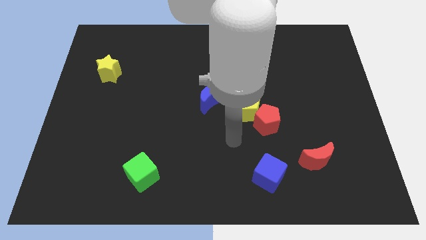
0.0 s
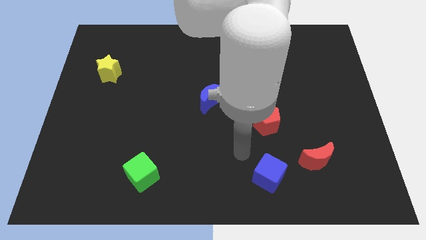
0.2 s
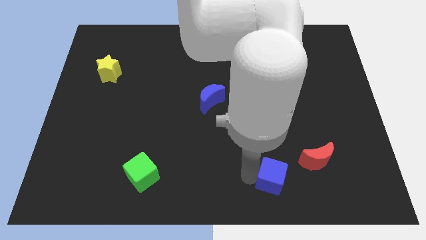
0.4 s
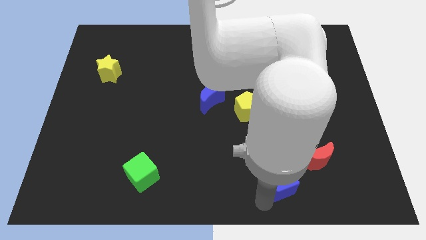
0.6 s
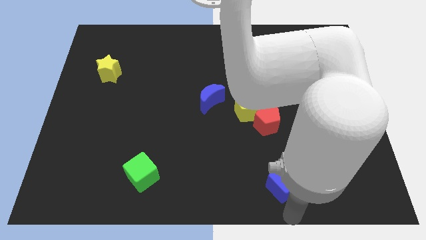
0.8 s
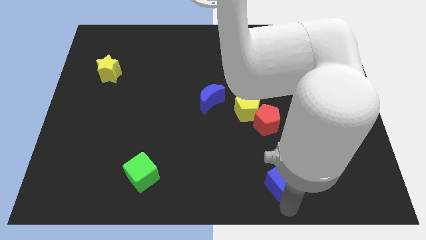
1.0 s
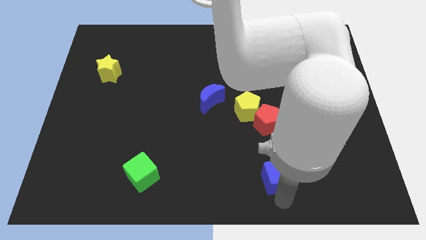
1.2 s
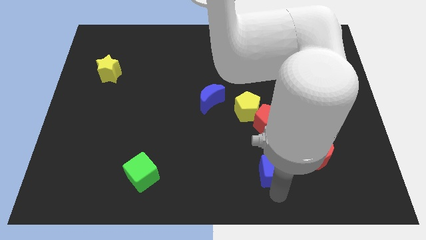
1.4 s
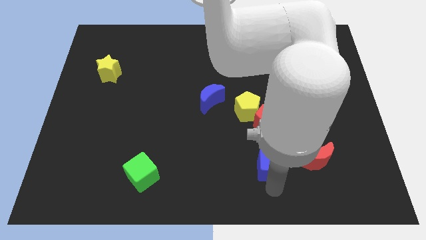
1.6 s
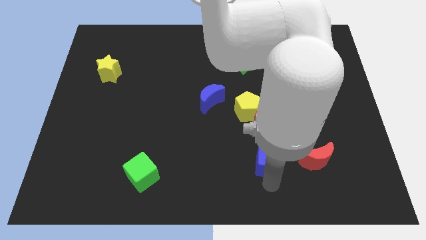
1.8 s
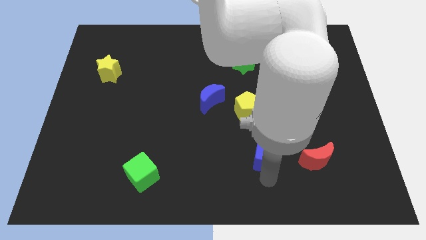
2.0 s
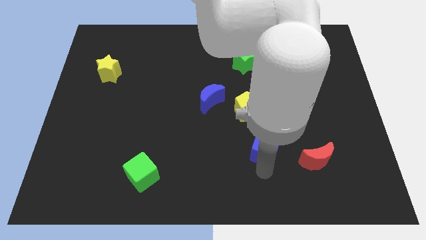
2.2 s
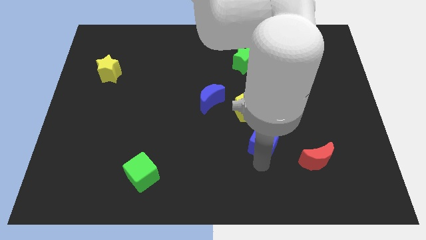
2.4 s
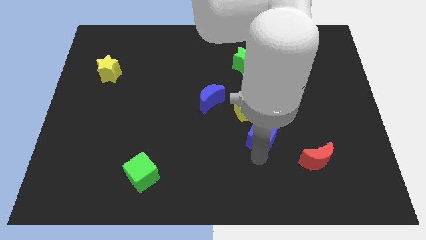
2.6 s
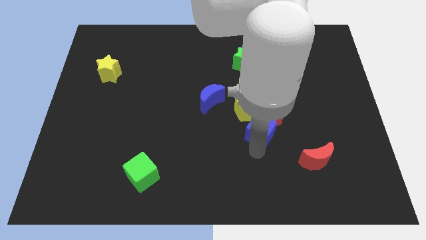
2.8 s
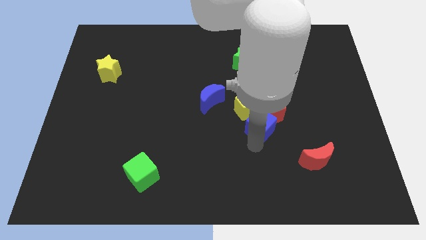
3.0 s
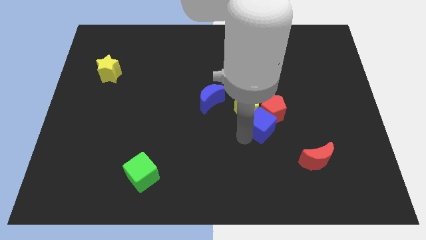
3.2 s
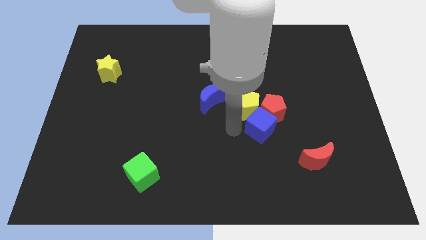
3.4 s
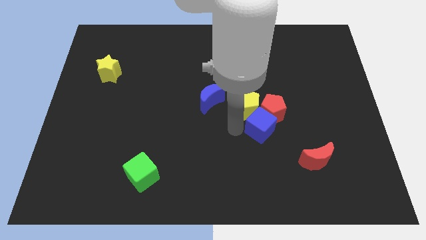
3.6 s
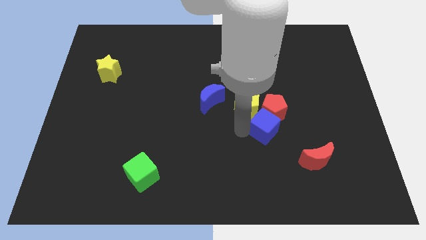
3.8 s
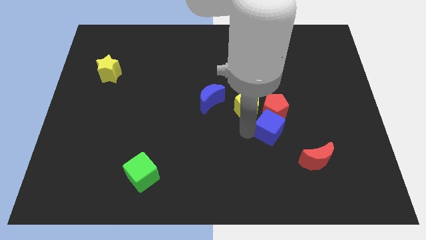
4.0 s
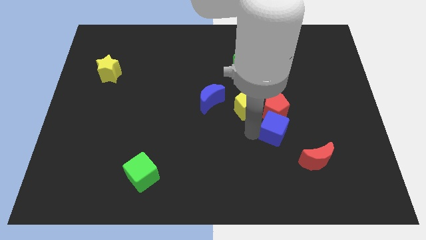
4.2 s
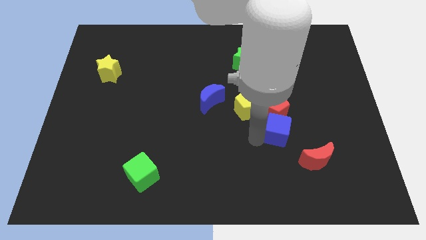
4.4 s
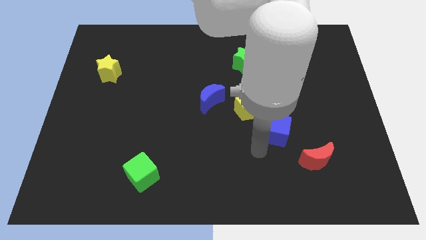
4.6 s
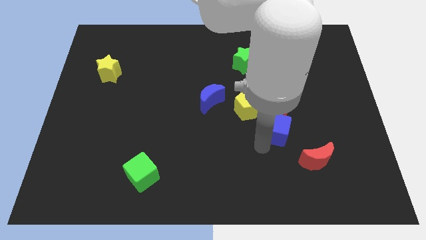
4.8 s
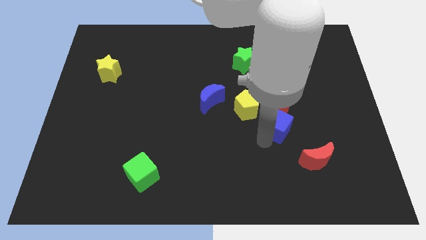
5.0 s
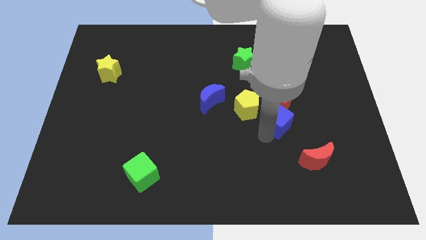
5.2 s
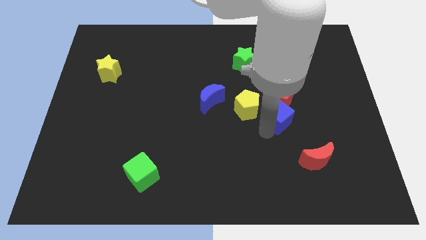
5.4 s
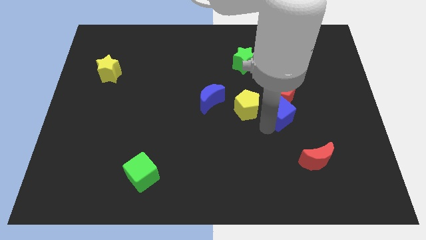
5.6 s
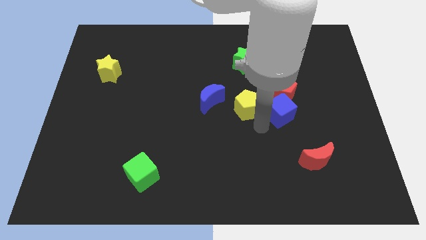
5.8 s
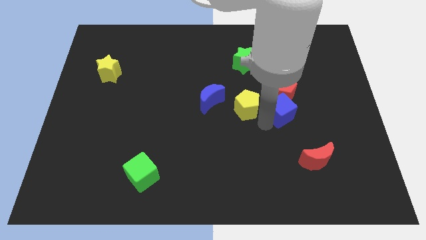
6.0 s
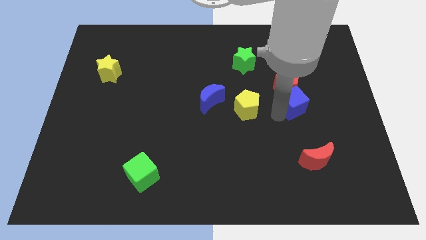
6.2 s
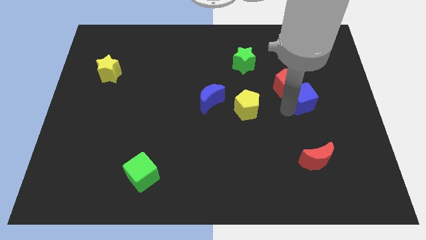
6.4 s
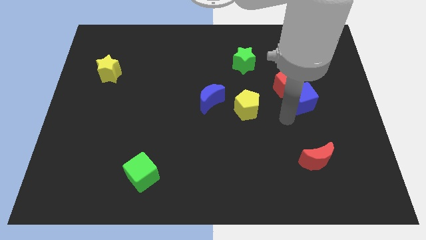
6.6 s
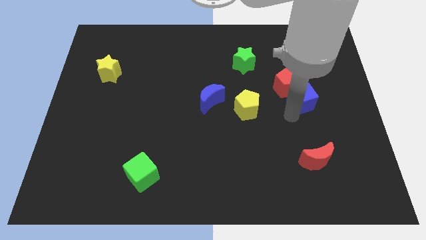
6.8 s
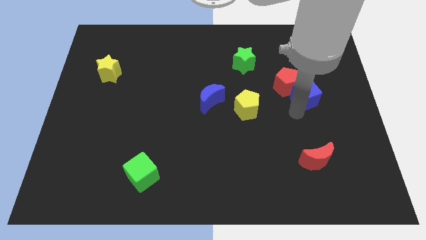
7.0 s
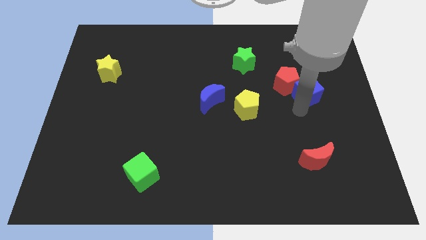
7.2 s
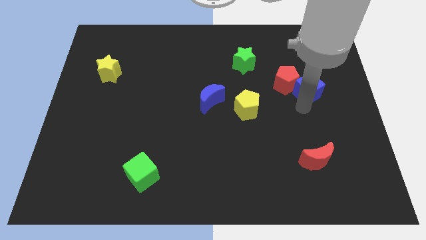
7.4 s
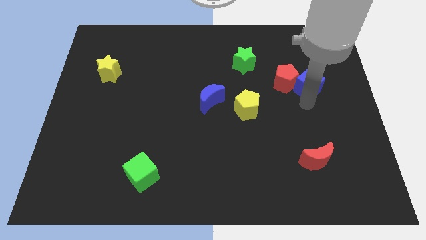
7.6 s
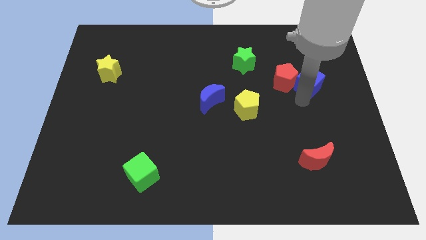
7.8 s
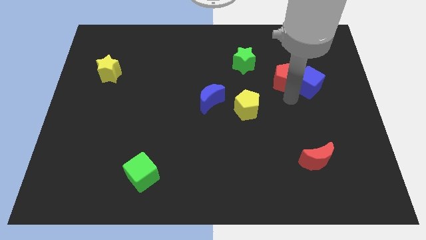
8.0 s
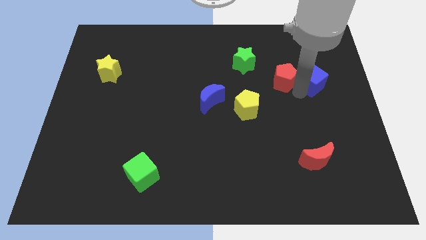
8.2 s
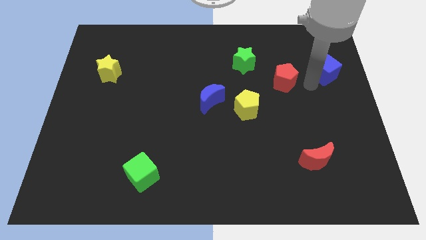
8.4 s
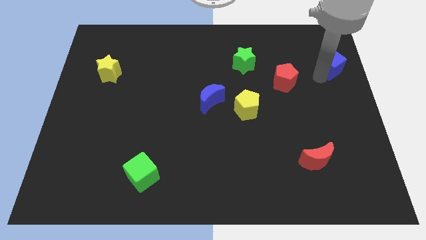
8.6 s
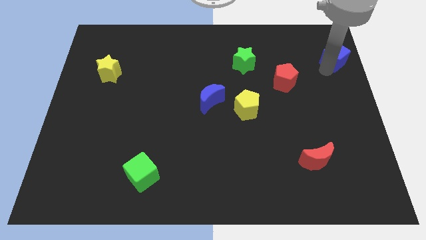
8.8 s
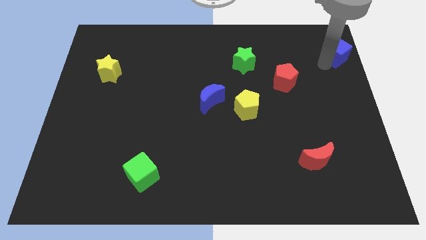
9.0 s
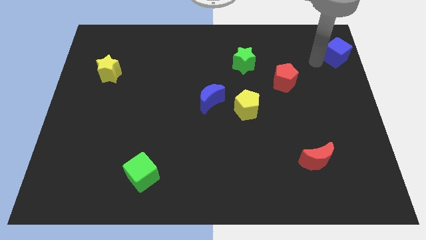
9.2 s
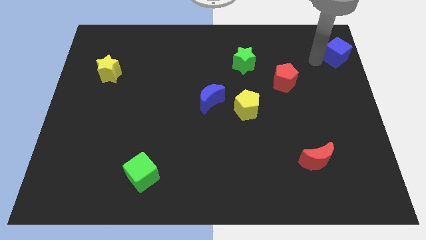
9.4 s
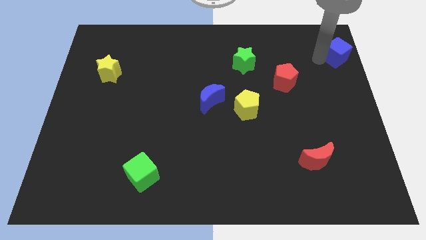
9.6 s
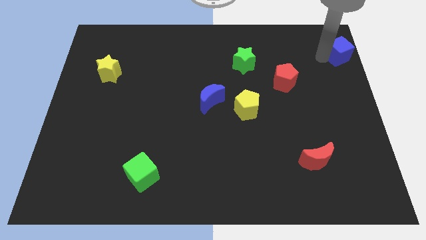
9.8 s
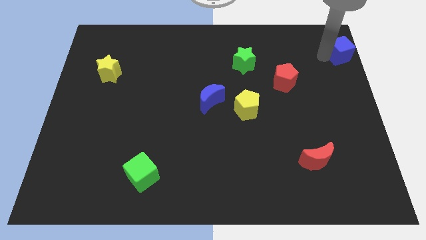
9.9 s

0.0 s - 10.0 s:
move the blue cube to the top right
